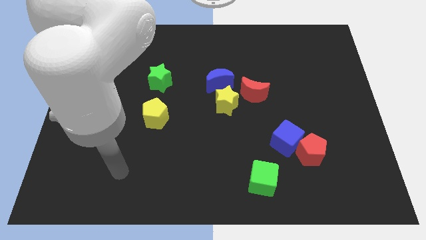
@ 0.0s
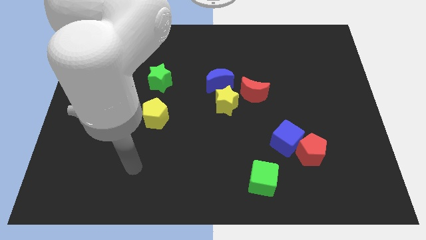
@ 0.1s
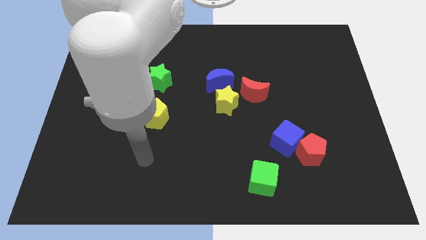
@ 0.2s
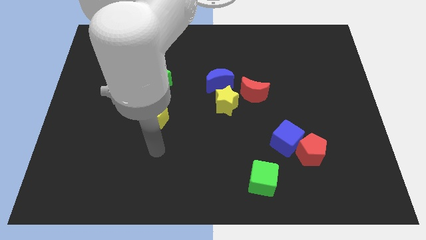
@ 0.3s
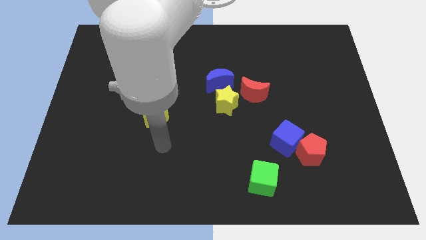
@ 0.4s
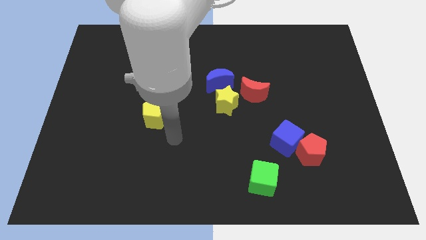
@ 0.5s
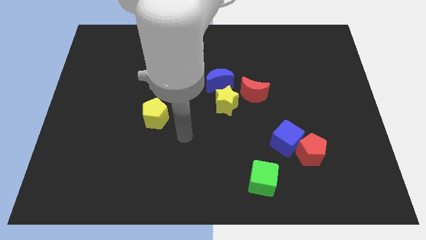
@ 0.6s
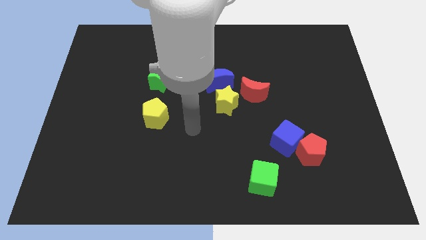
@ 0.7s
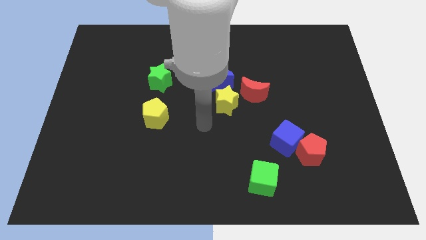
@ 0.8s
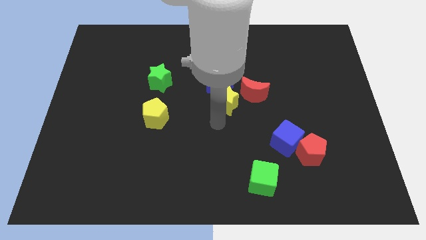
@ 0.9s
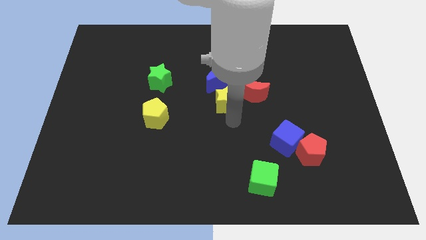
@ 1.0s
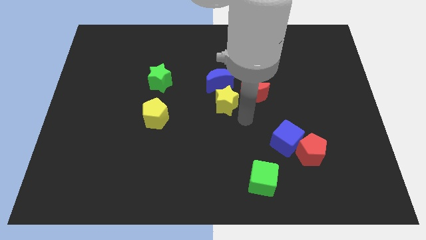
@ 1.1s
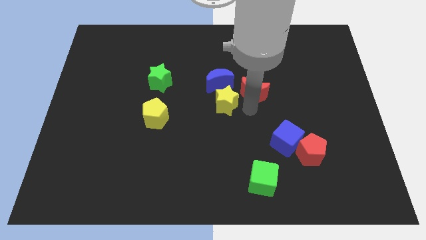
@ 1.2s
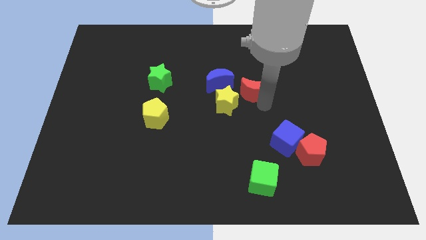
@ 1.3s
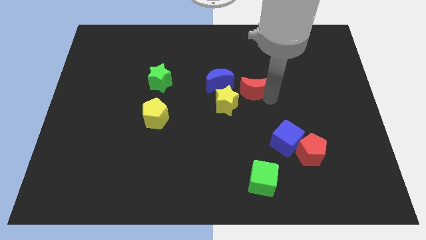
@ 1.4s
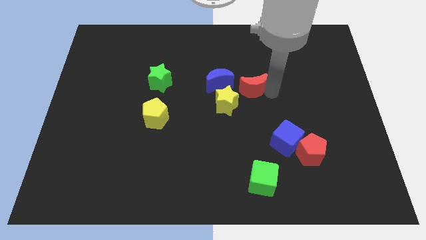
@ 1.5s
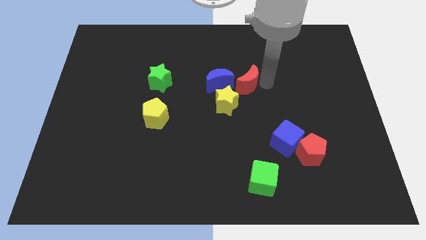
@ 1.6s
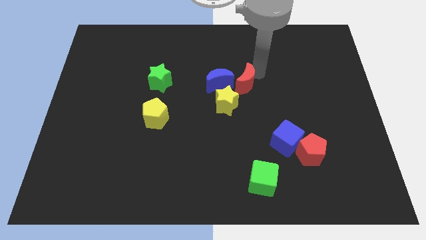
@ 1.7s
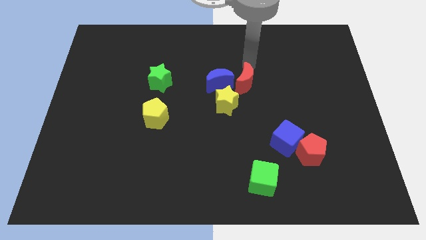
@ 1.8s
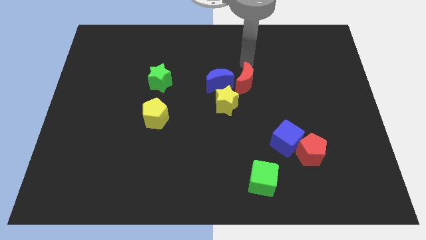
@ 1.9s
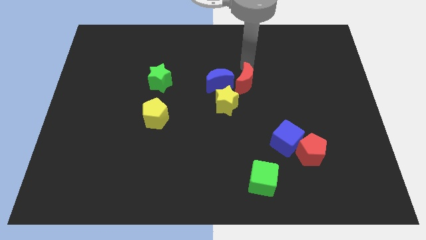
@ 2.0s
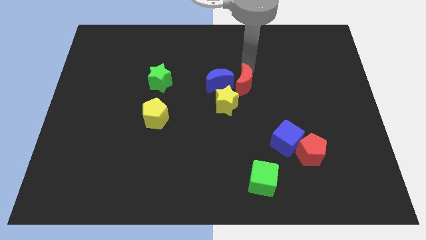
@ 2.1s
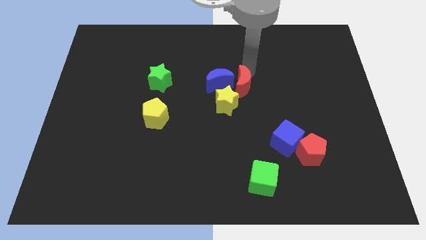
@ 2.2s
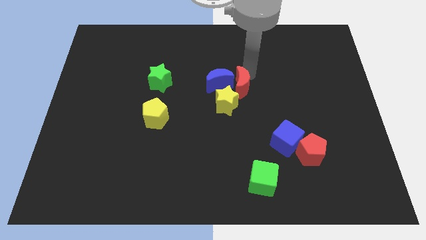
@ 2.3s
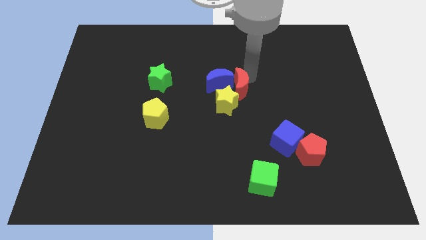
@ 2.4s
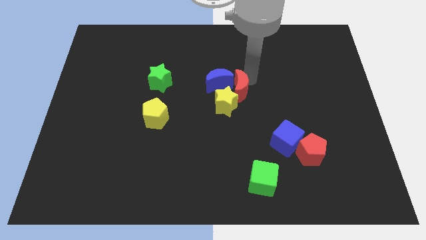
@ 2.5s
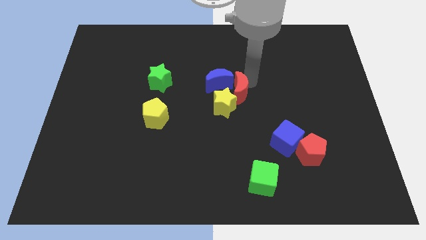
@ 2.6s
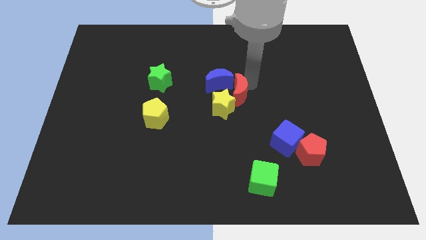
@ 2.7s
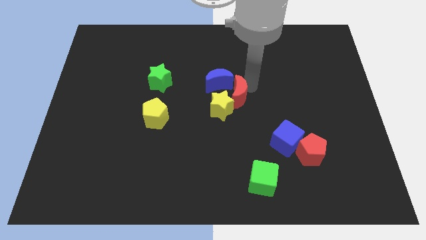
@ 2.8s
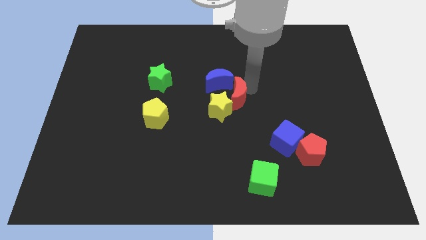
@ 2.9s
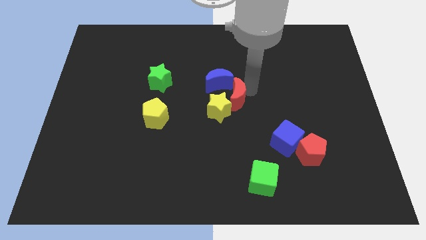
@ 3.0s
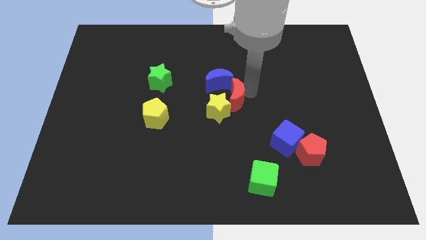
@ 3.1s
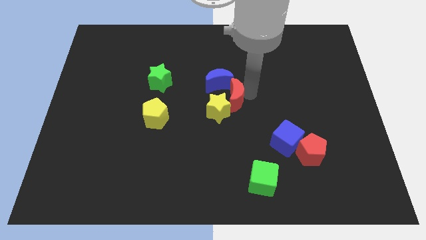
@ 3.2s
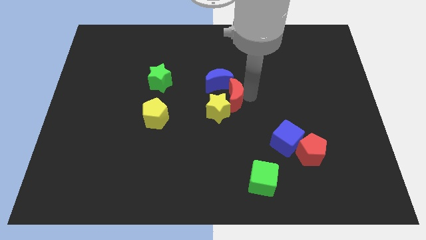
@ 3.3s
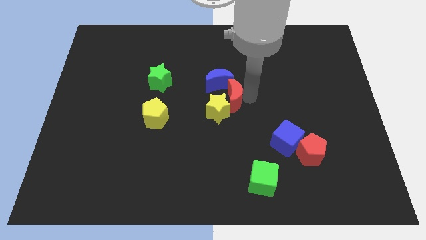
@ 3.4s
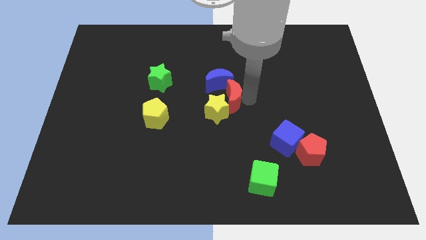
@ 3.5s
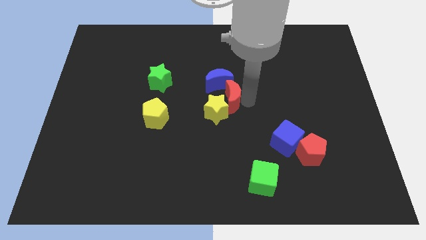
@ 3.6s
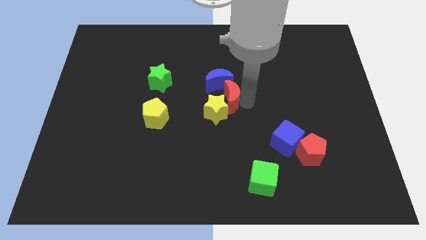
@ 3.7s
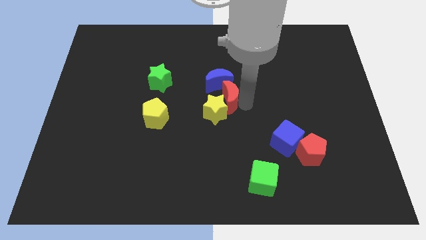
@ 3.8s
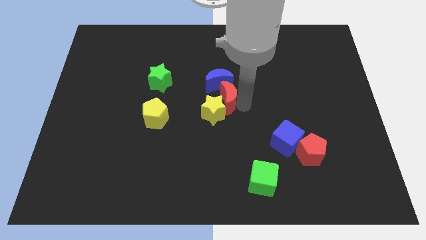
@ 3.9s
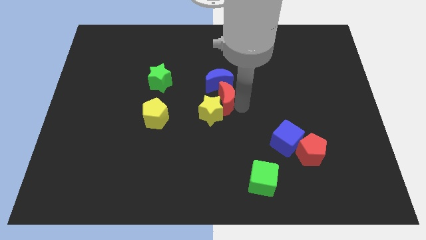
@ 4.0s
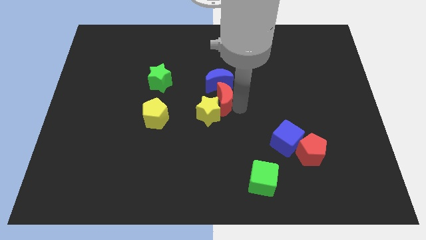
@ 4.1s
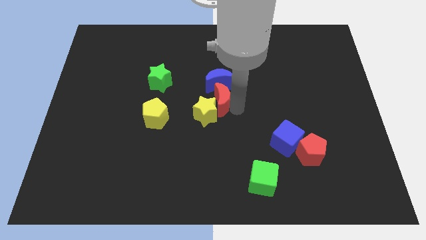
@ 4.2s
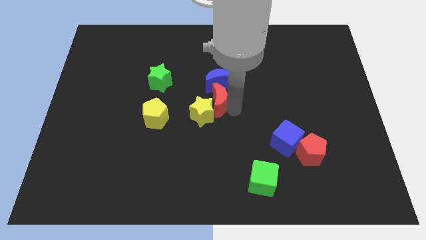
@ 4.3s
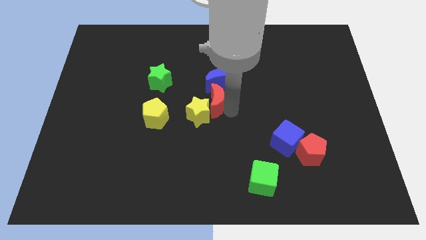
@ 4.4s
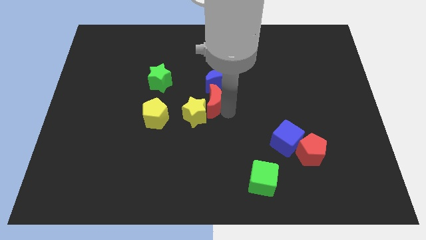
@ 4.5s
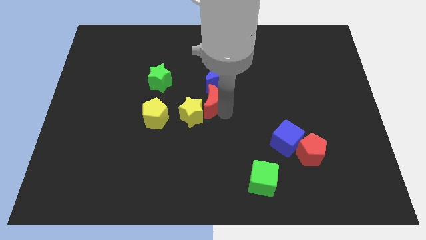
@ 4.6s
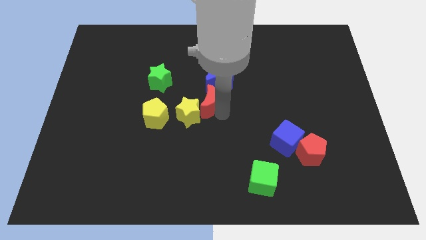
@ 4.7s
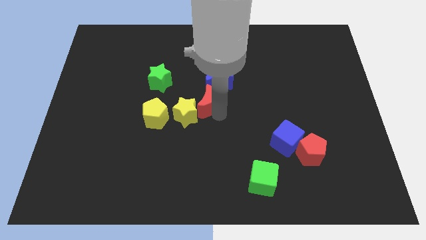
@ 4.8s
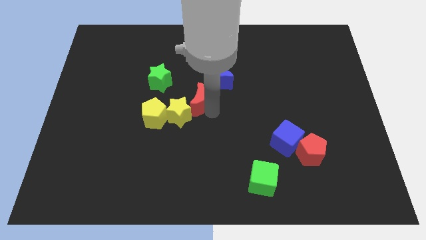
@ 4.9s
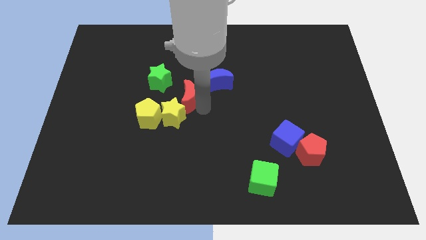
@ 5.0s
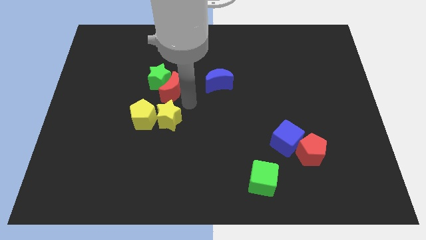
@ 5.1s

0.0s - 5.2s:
move the red moon left

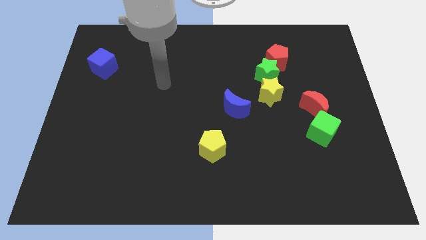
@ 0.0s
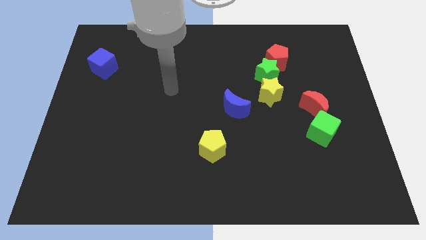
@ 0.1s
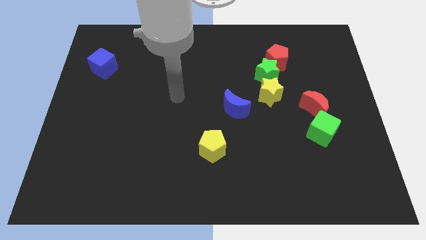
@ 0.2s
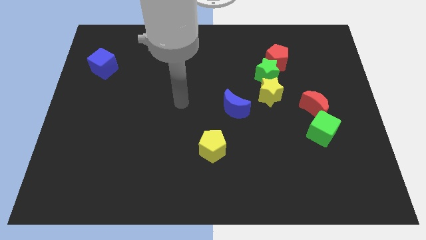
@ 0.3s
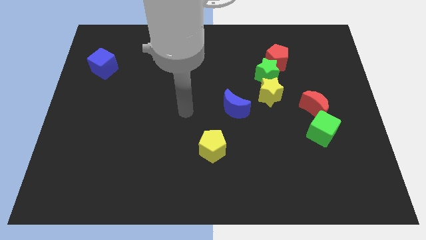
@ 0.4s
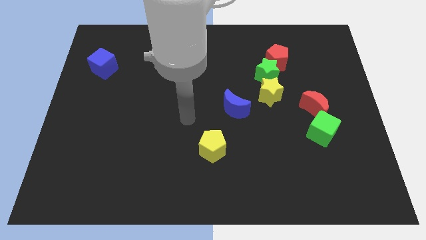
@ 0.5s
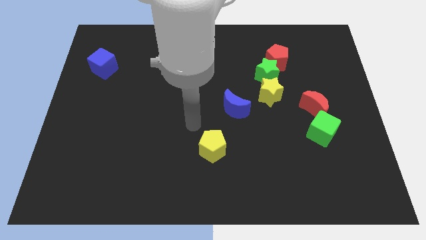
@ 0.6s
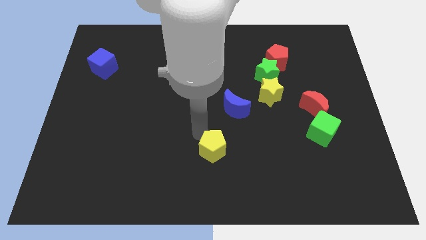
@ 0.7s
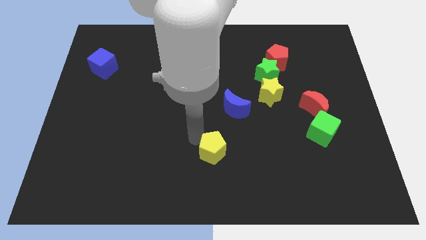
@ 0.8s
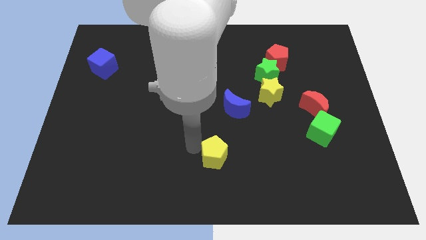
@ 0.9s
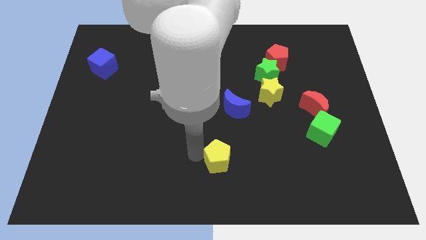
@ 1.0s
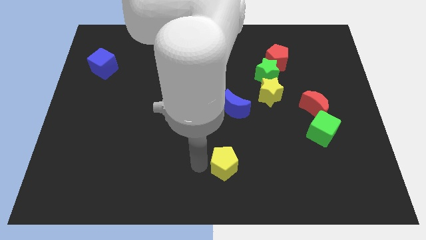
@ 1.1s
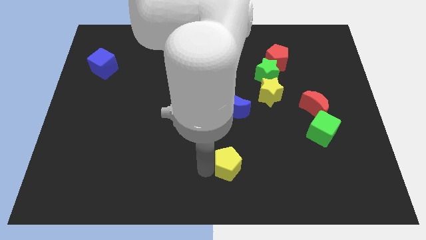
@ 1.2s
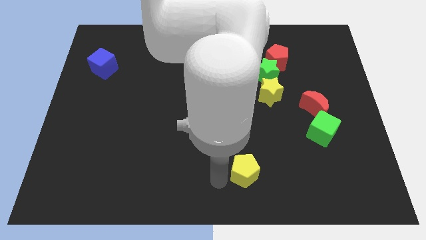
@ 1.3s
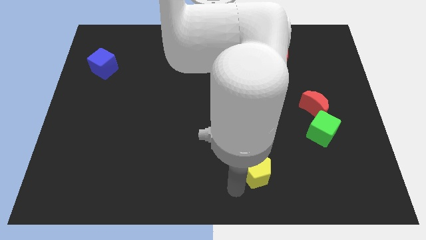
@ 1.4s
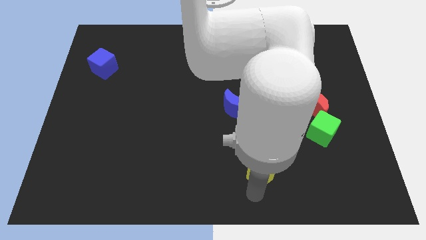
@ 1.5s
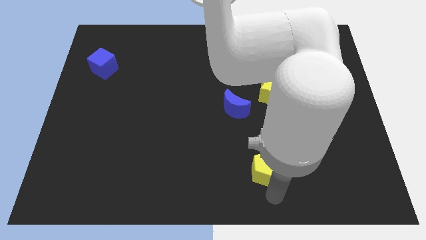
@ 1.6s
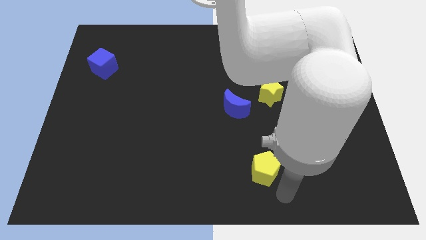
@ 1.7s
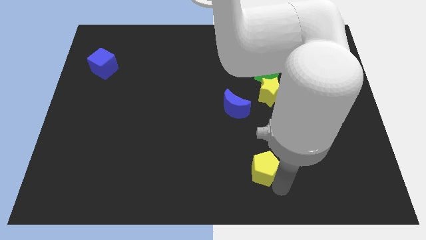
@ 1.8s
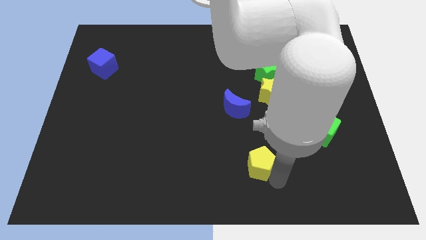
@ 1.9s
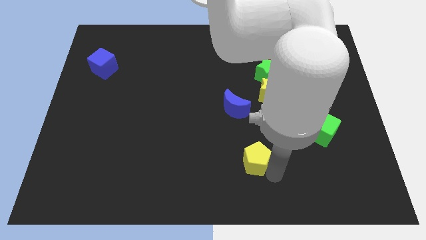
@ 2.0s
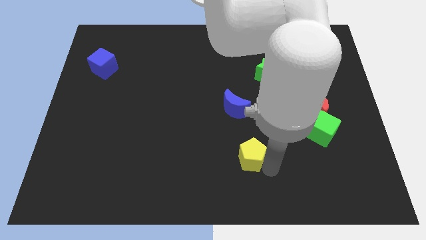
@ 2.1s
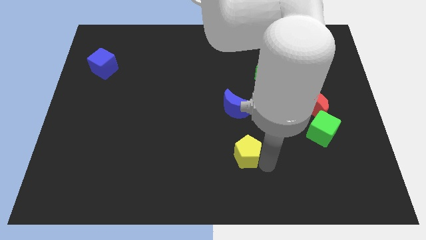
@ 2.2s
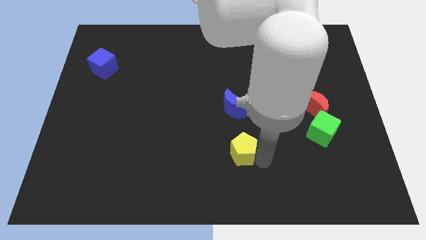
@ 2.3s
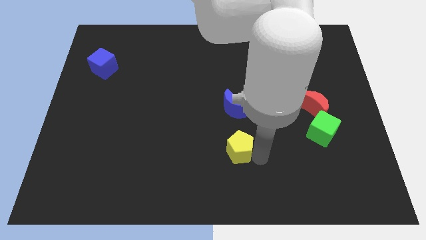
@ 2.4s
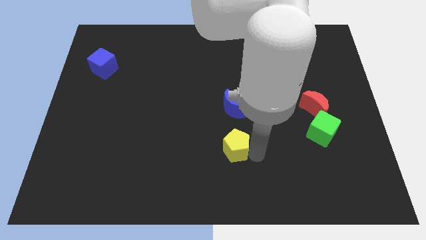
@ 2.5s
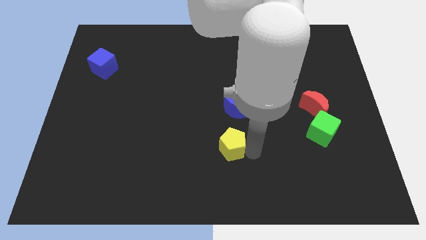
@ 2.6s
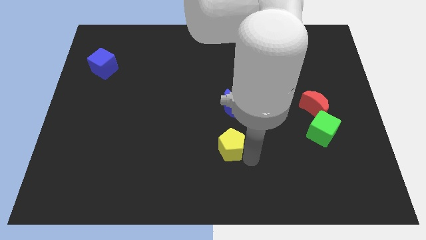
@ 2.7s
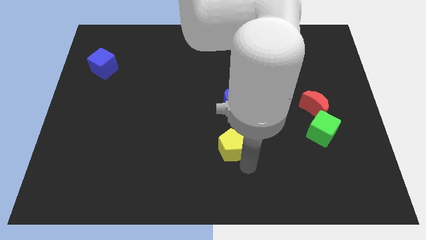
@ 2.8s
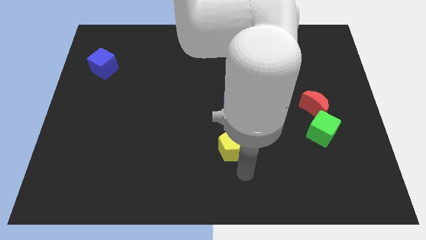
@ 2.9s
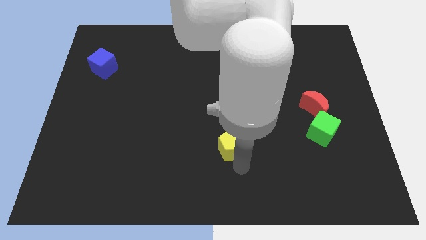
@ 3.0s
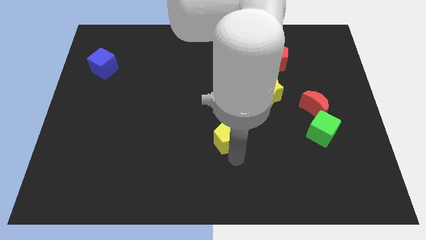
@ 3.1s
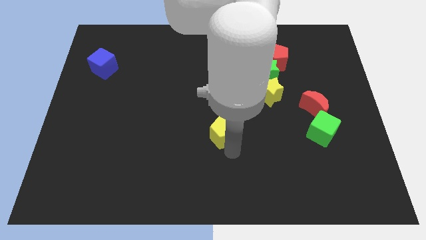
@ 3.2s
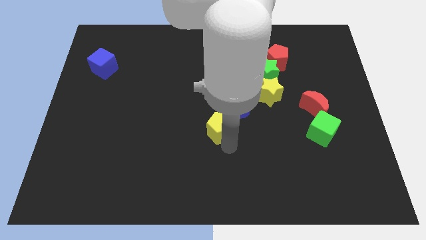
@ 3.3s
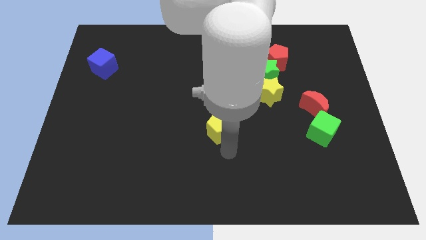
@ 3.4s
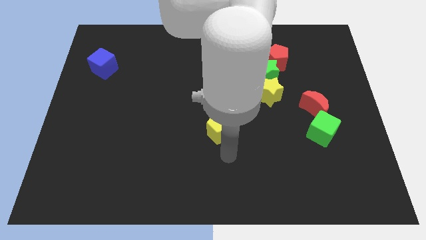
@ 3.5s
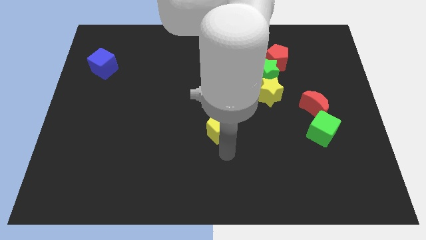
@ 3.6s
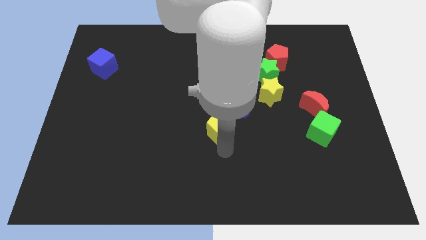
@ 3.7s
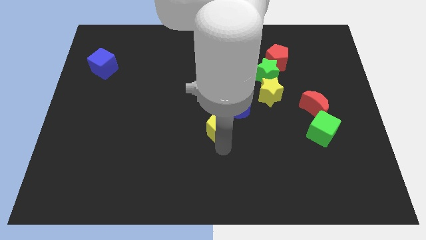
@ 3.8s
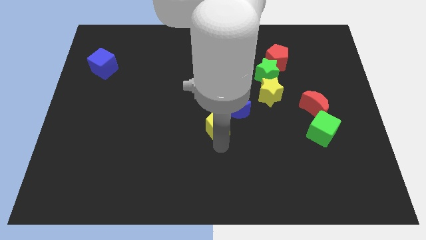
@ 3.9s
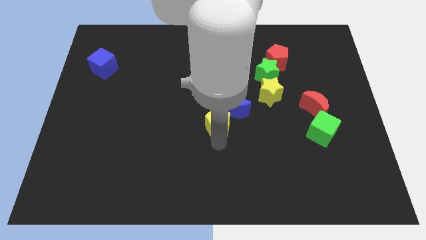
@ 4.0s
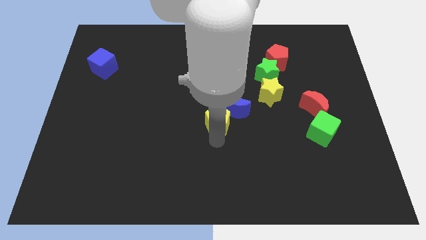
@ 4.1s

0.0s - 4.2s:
slightly push the yellow pentagon upwards
